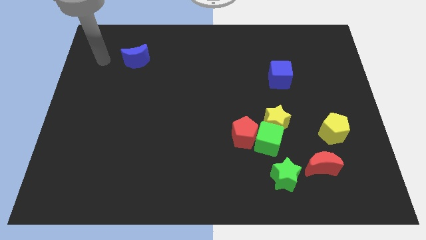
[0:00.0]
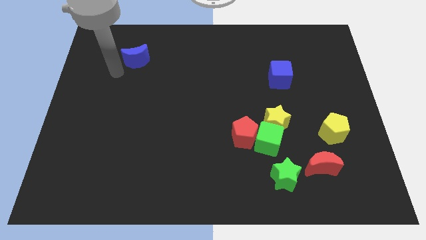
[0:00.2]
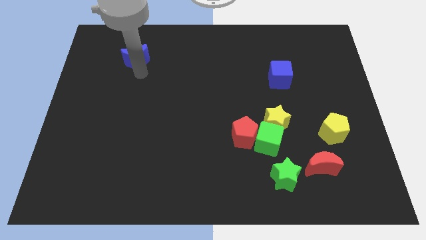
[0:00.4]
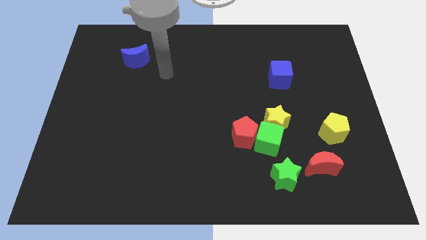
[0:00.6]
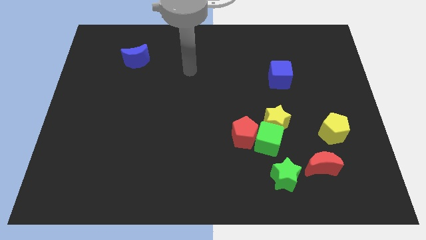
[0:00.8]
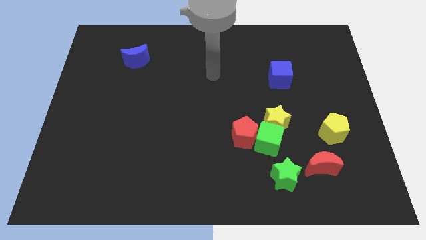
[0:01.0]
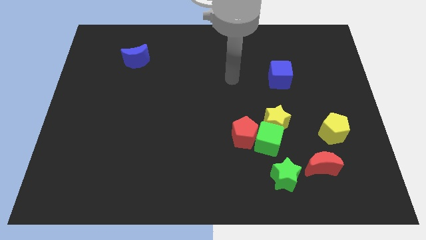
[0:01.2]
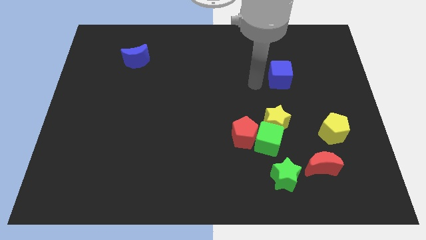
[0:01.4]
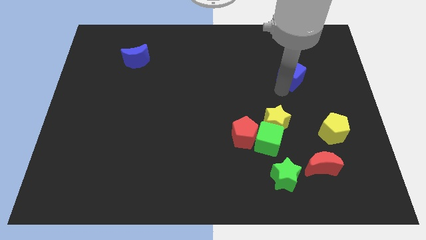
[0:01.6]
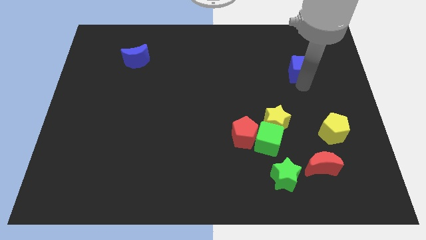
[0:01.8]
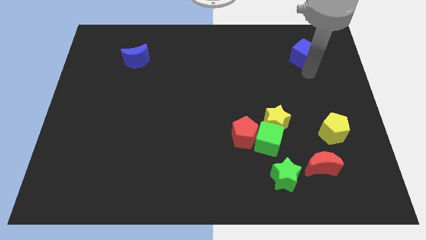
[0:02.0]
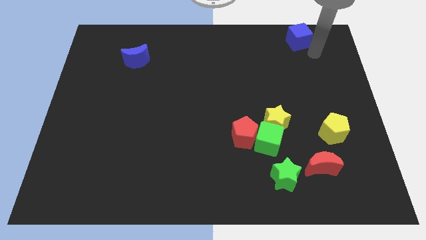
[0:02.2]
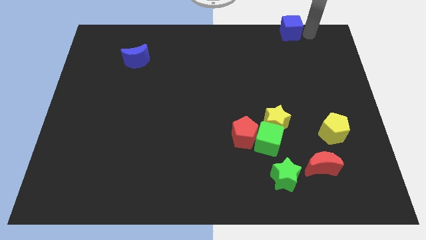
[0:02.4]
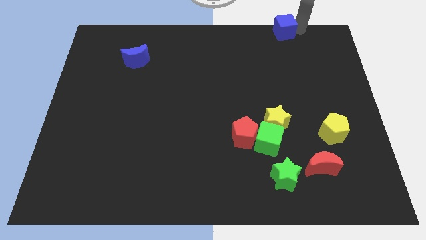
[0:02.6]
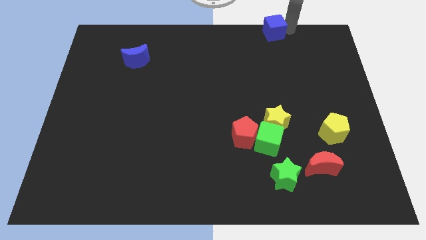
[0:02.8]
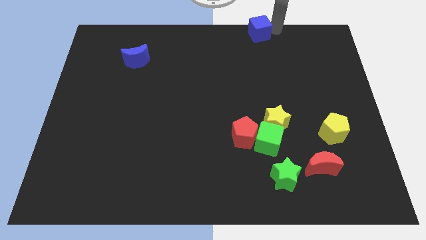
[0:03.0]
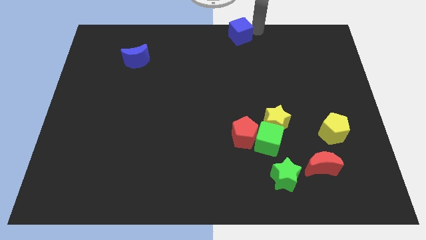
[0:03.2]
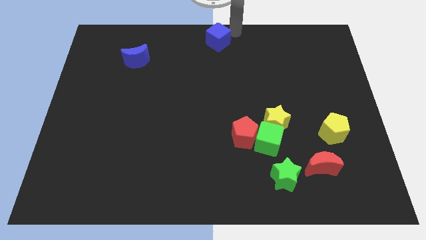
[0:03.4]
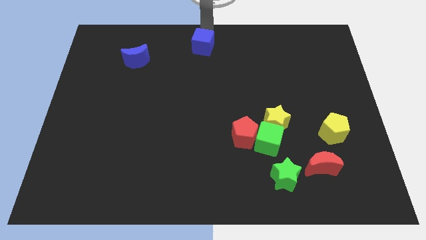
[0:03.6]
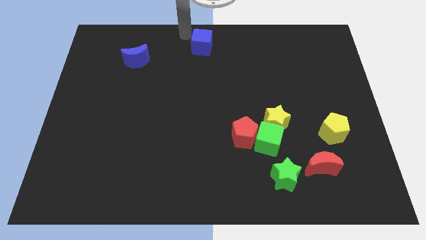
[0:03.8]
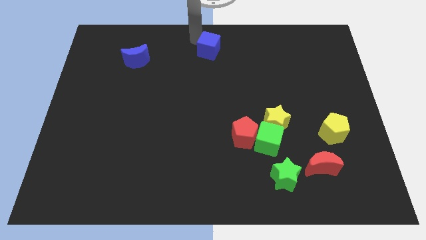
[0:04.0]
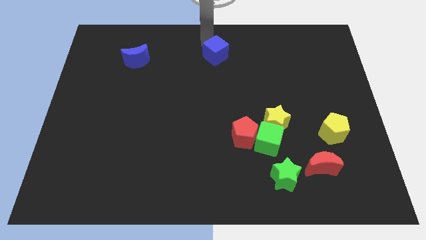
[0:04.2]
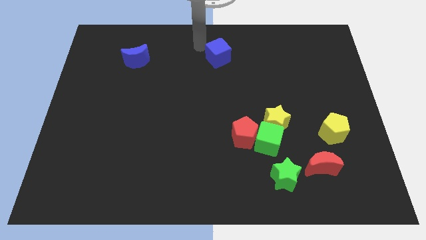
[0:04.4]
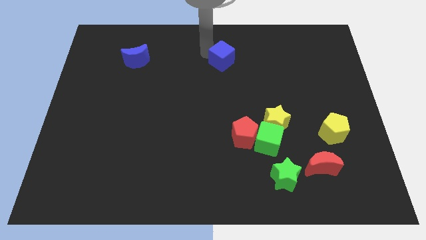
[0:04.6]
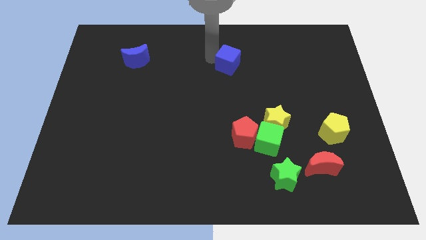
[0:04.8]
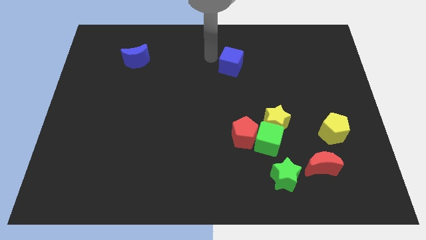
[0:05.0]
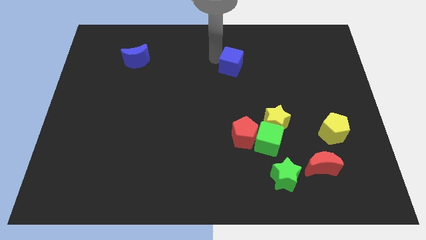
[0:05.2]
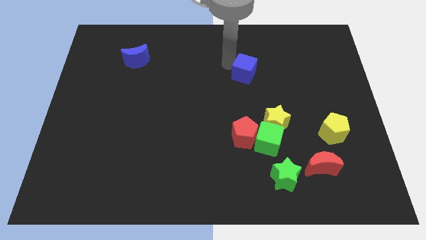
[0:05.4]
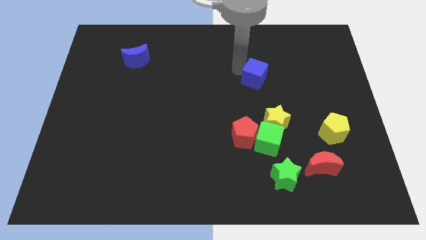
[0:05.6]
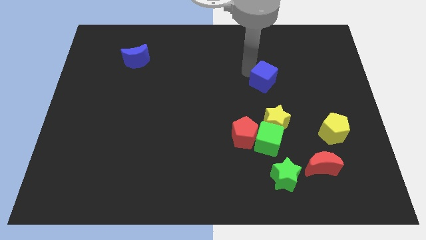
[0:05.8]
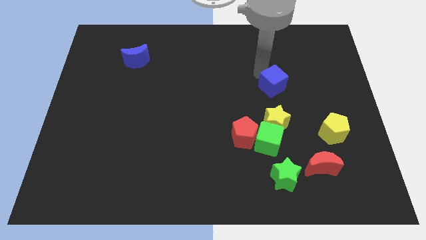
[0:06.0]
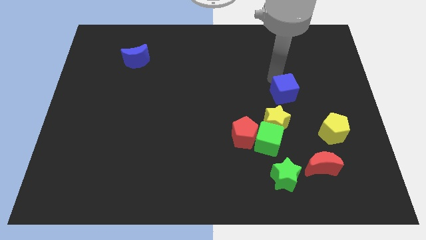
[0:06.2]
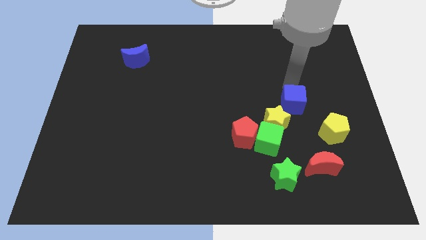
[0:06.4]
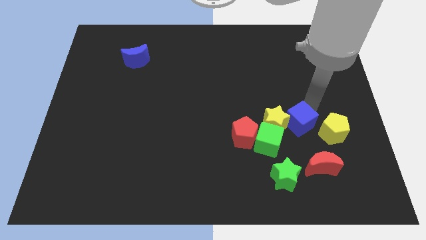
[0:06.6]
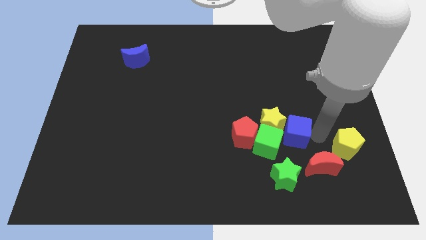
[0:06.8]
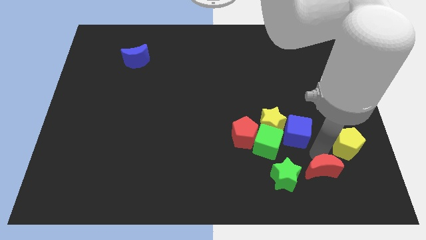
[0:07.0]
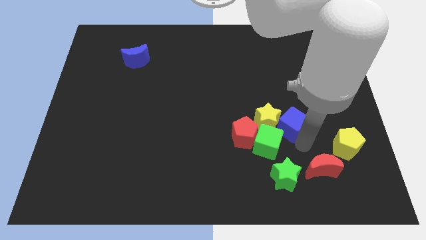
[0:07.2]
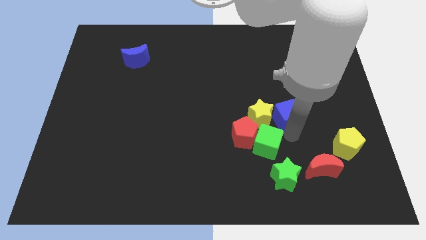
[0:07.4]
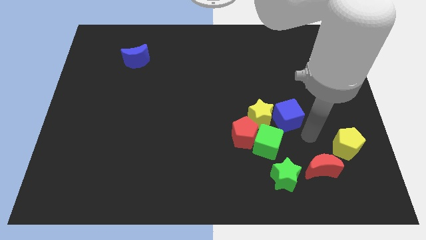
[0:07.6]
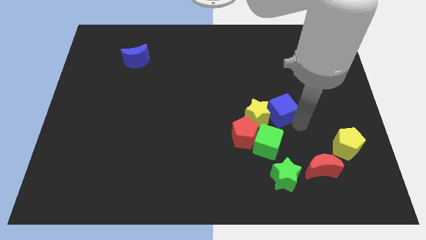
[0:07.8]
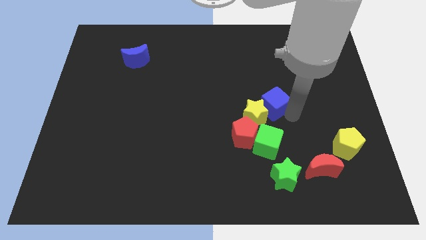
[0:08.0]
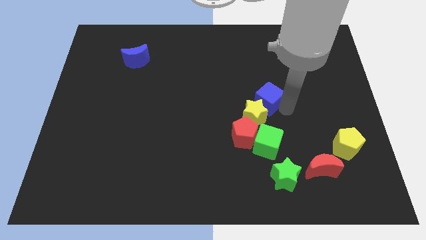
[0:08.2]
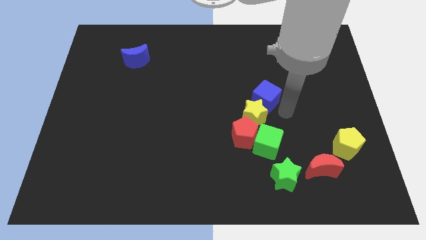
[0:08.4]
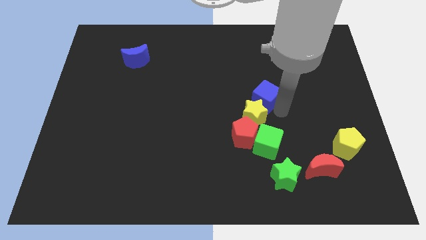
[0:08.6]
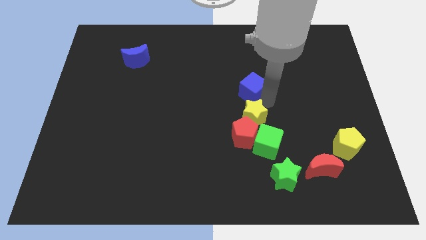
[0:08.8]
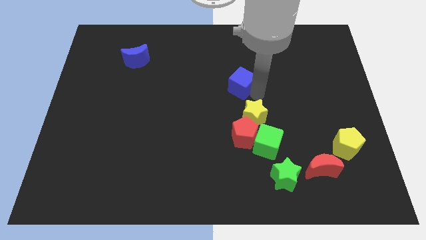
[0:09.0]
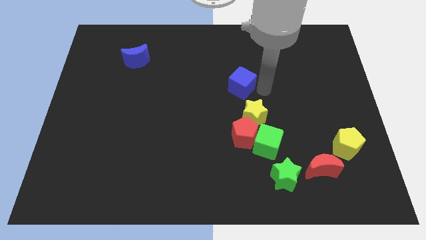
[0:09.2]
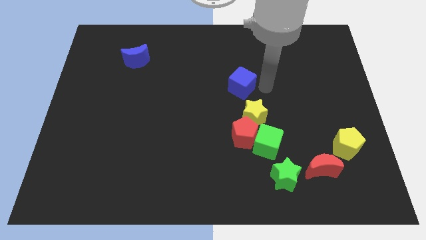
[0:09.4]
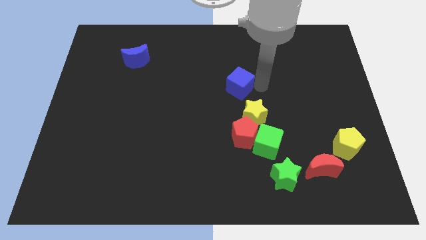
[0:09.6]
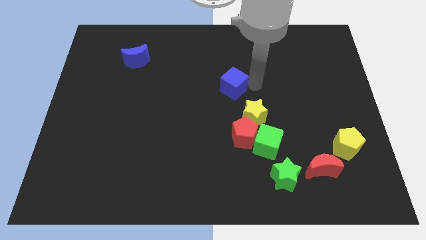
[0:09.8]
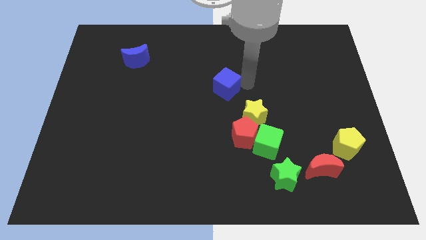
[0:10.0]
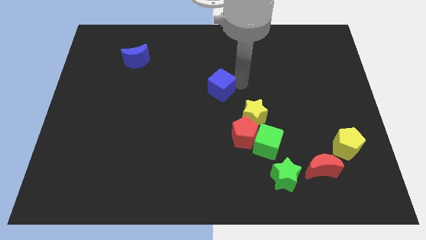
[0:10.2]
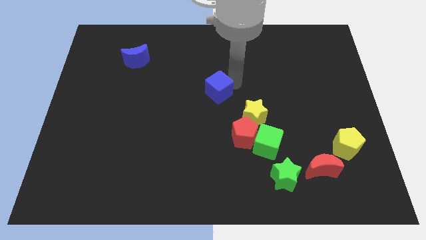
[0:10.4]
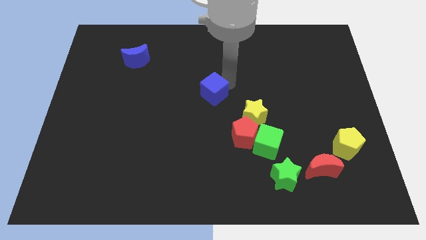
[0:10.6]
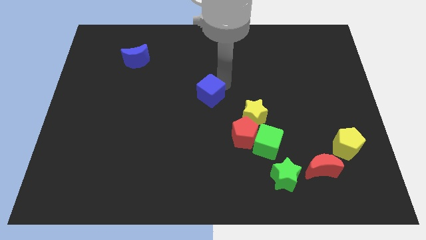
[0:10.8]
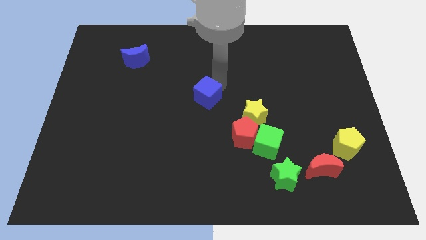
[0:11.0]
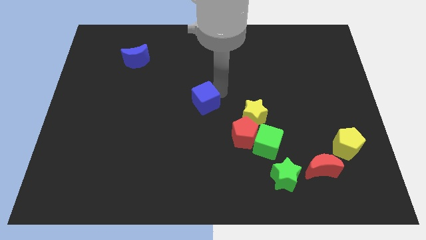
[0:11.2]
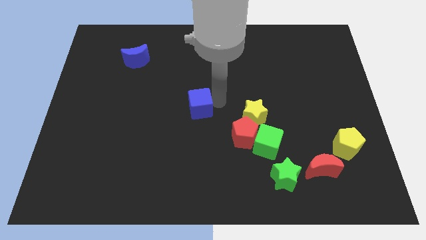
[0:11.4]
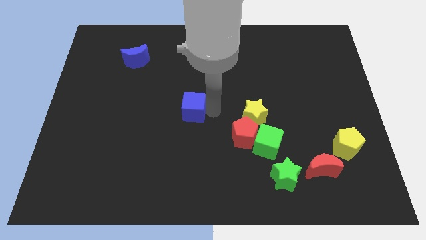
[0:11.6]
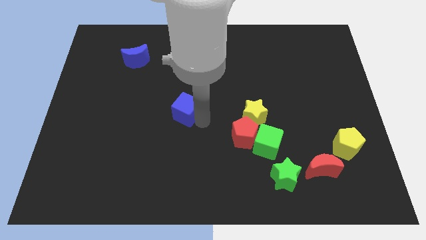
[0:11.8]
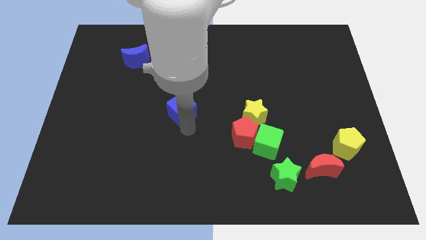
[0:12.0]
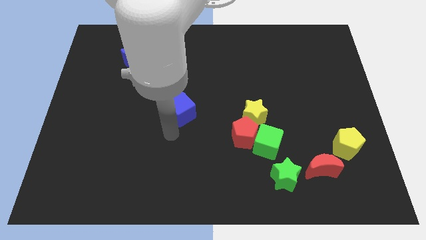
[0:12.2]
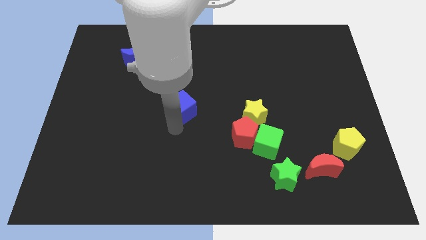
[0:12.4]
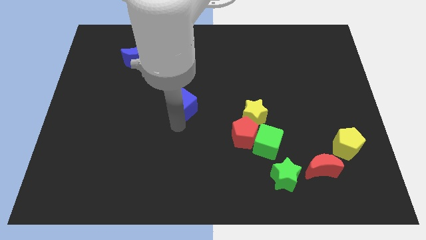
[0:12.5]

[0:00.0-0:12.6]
move the blue cube left

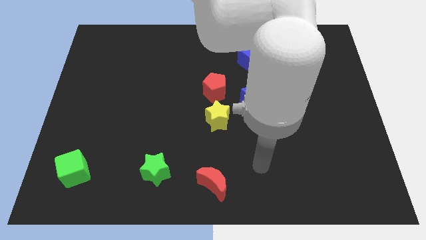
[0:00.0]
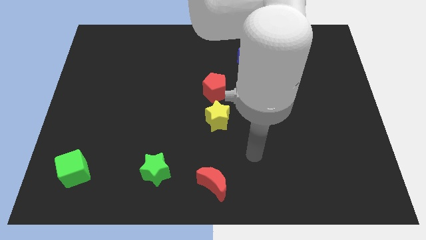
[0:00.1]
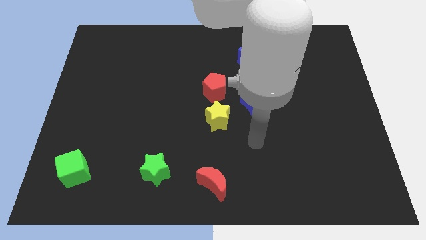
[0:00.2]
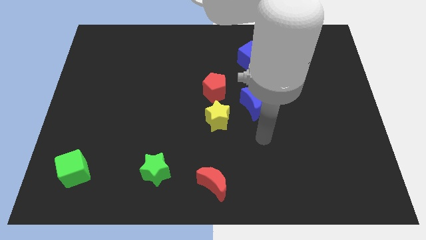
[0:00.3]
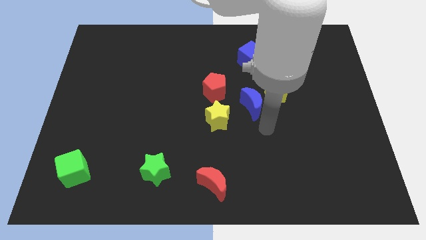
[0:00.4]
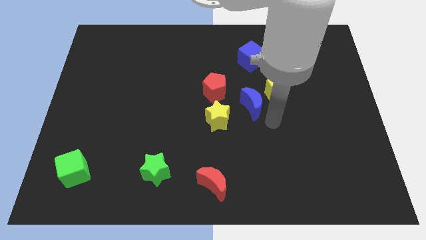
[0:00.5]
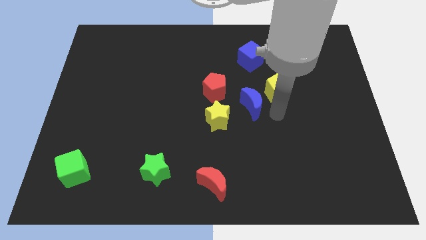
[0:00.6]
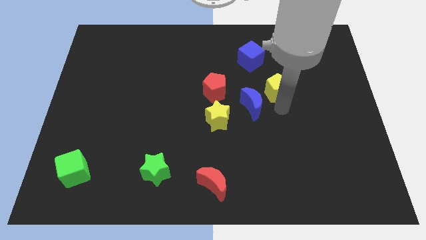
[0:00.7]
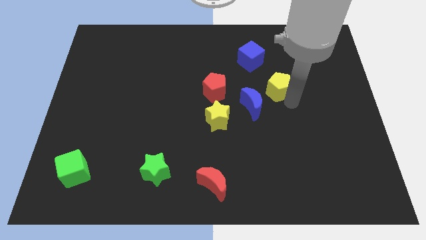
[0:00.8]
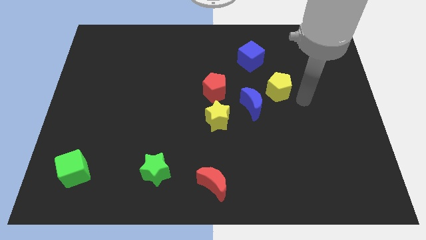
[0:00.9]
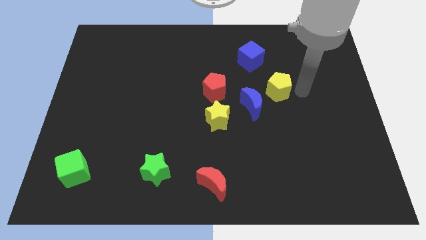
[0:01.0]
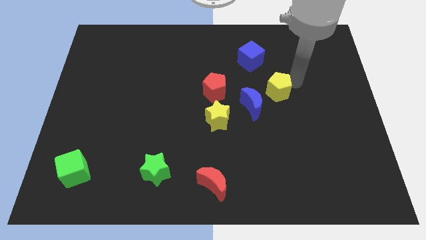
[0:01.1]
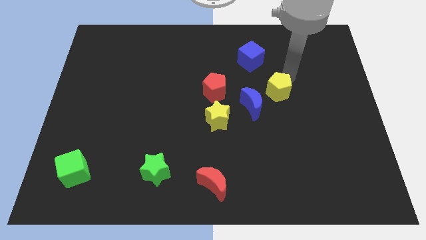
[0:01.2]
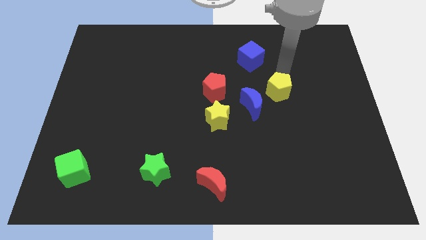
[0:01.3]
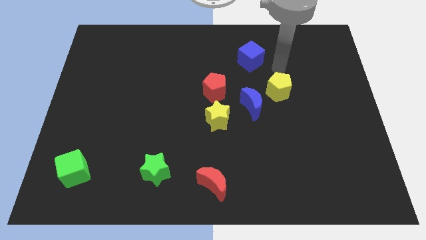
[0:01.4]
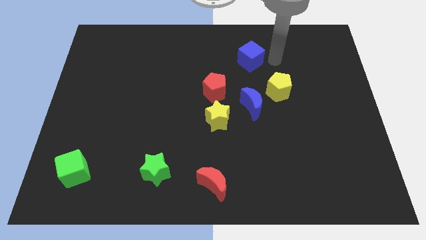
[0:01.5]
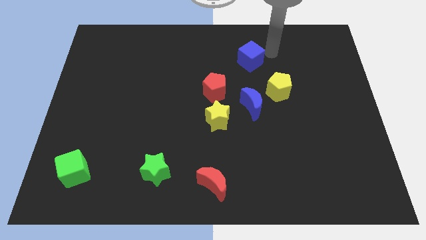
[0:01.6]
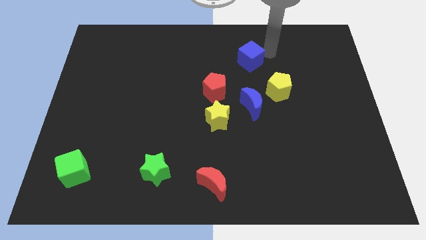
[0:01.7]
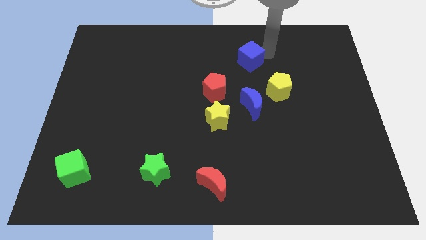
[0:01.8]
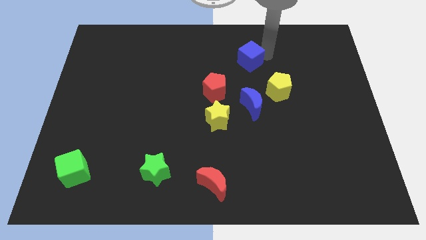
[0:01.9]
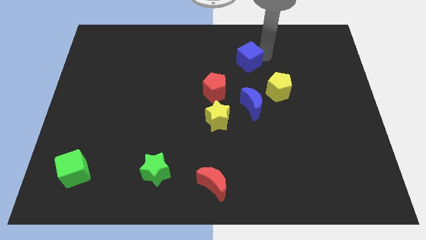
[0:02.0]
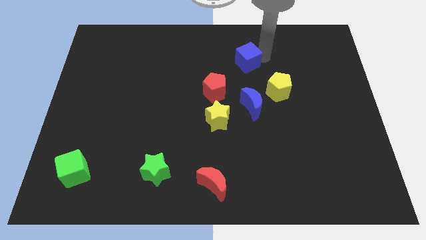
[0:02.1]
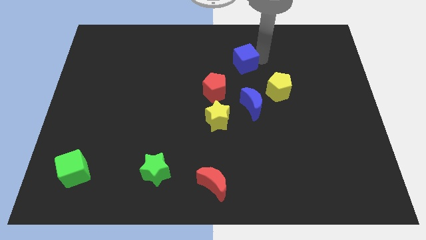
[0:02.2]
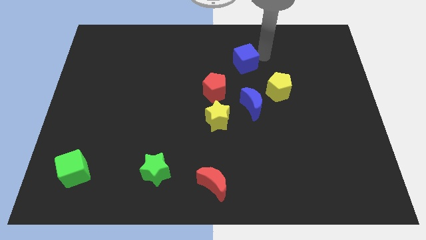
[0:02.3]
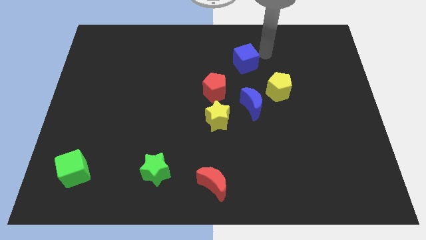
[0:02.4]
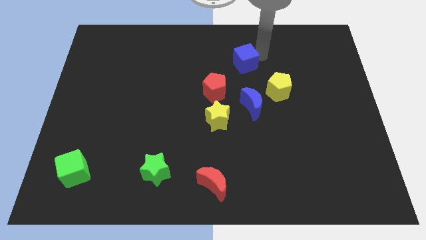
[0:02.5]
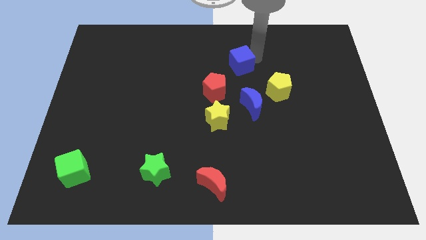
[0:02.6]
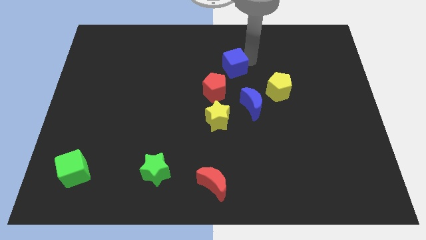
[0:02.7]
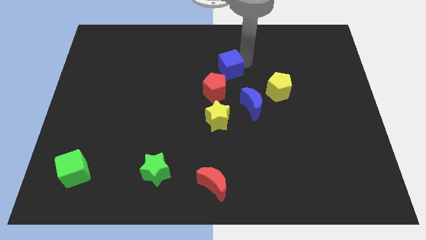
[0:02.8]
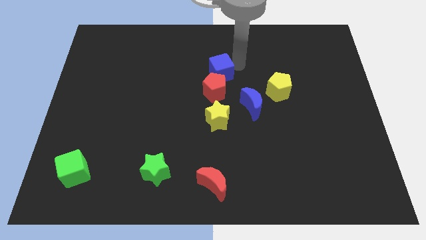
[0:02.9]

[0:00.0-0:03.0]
slightly push the blue cube diagonally down and to the left
